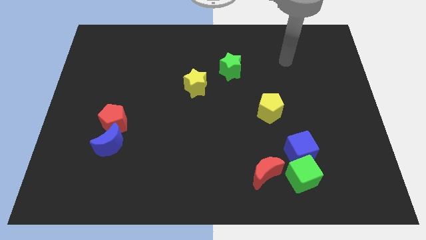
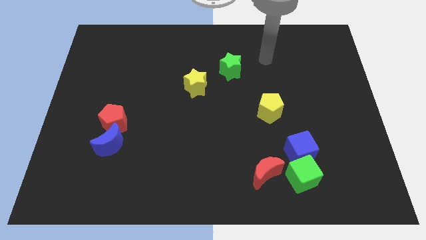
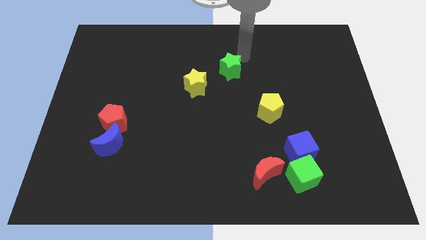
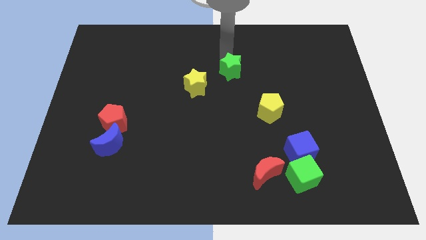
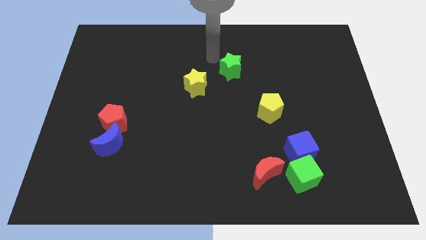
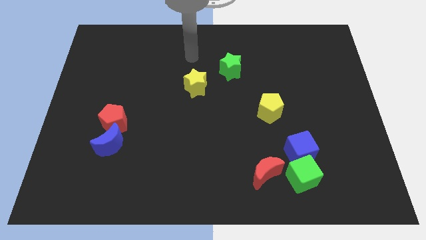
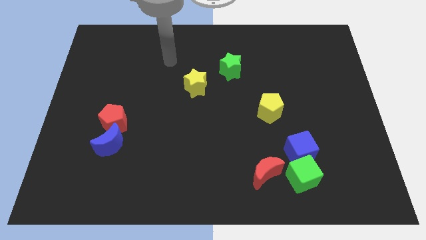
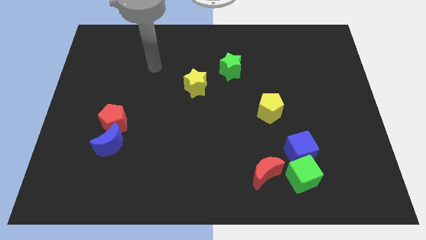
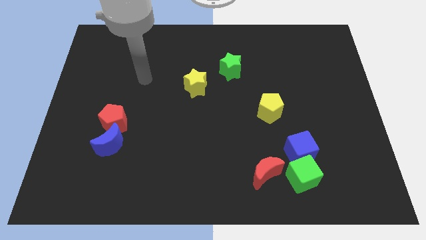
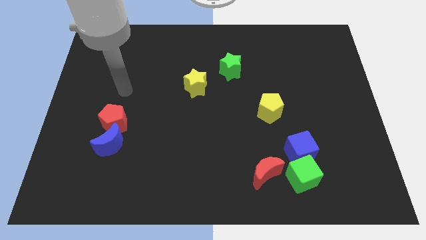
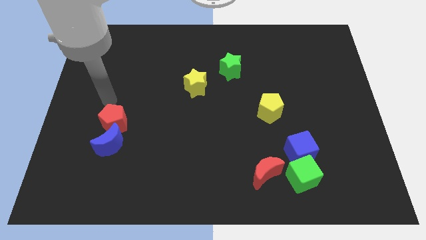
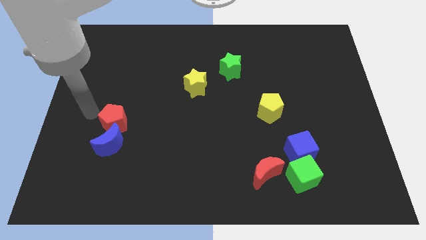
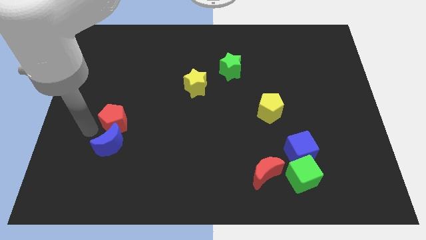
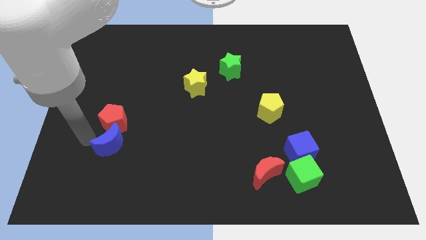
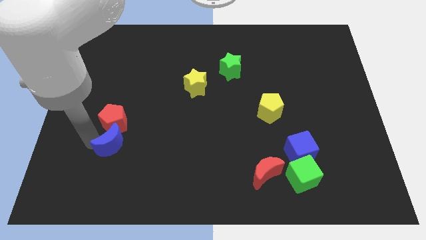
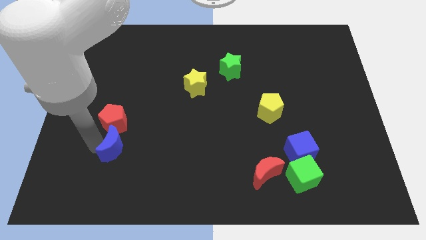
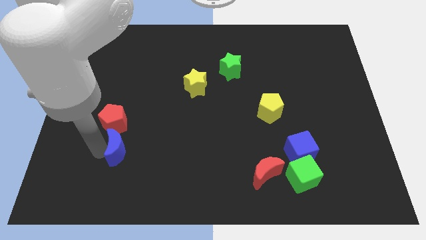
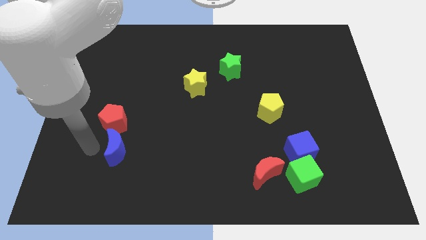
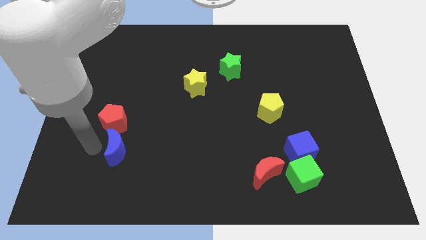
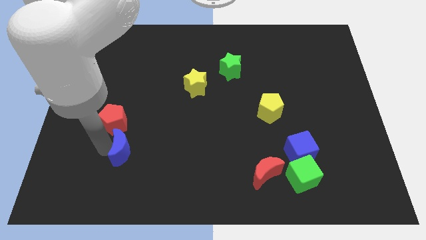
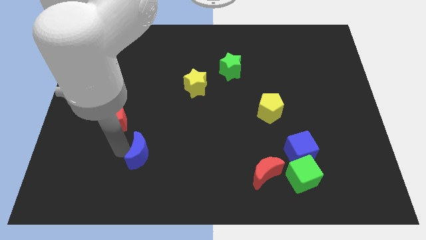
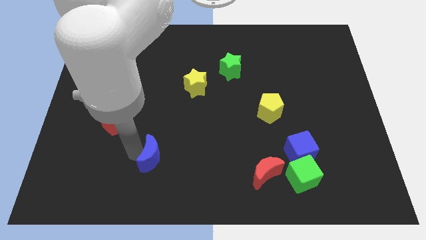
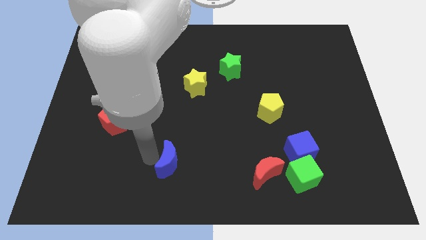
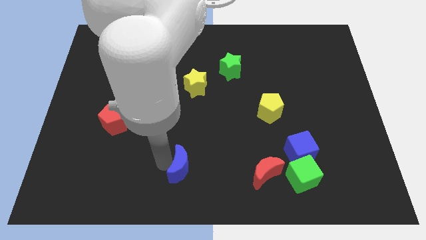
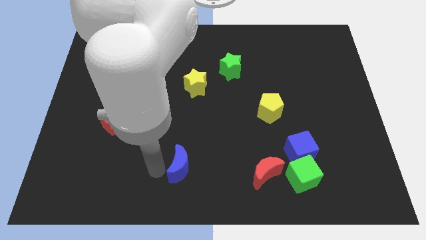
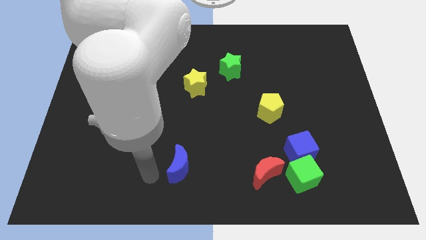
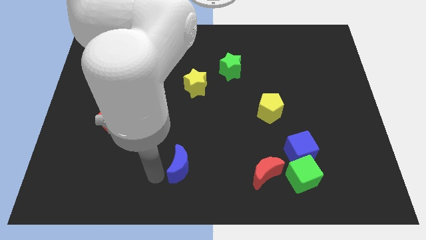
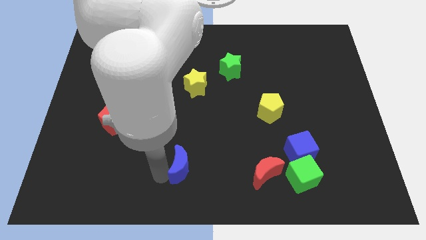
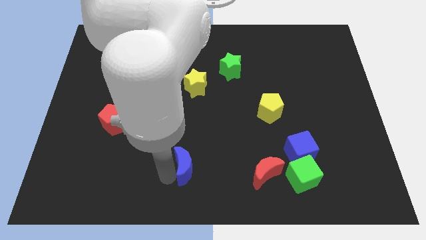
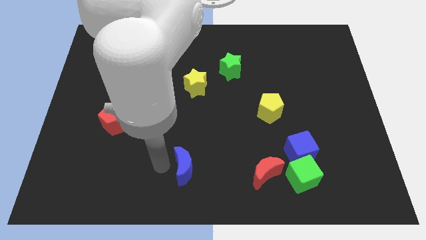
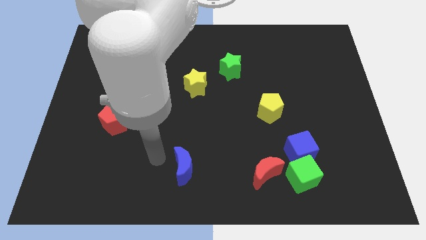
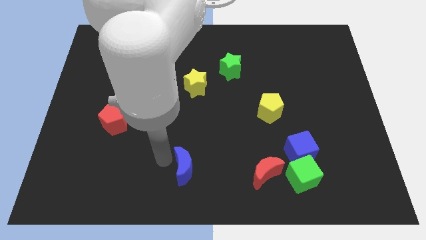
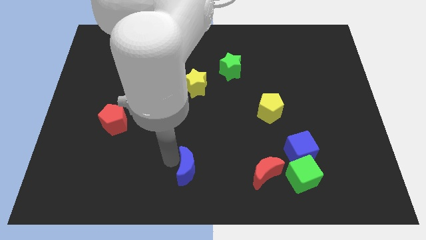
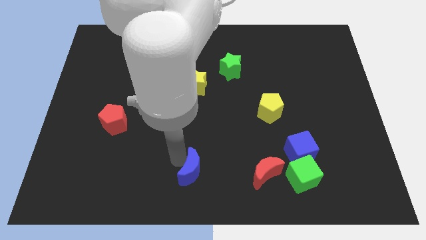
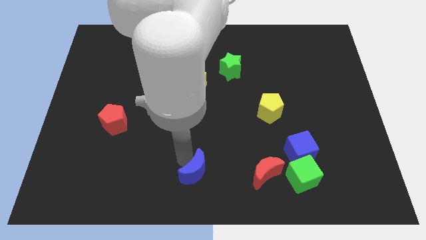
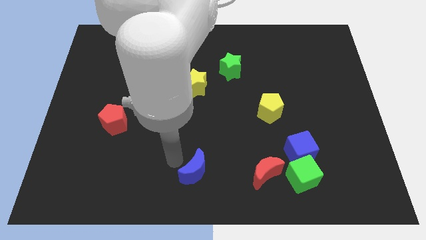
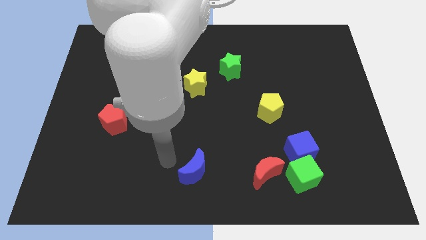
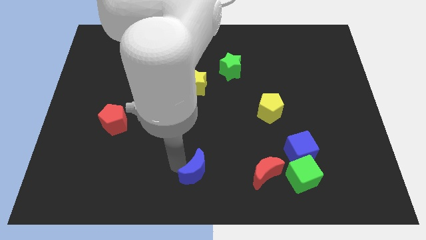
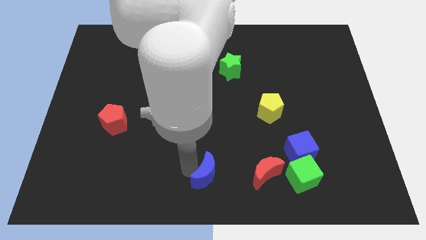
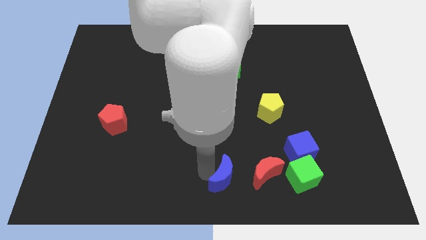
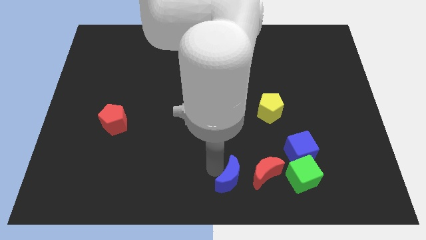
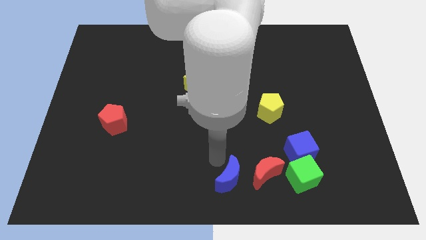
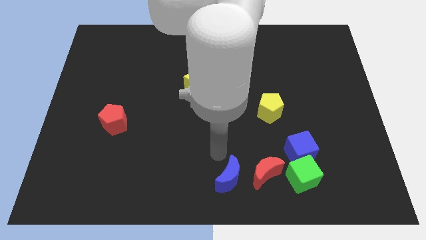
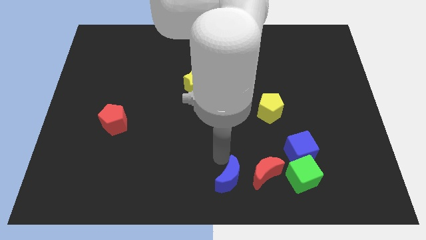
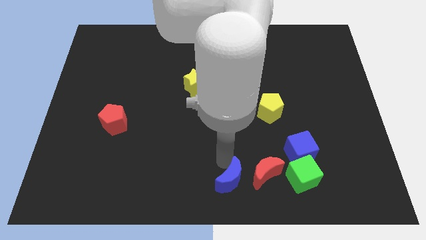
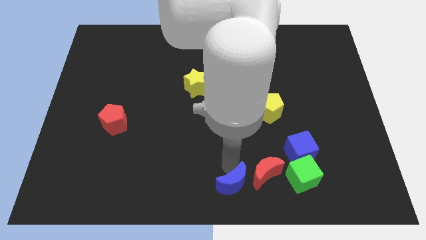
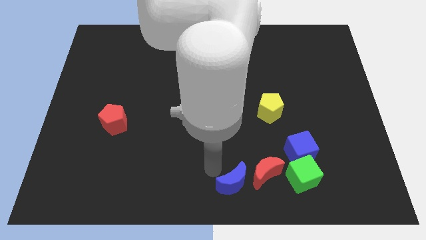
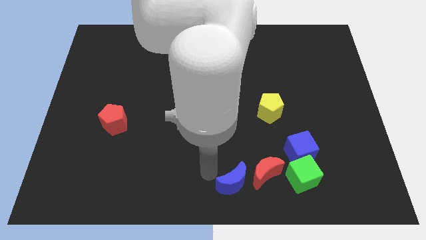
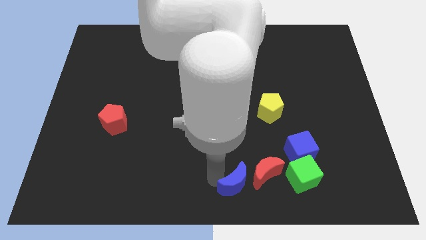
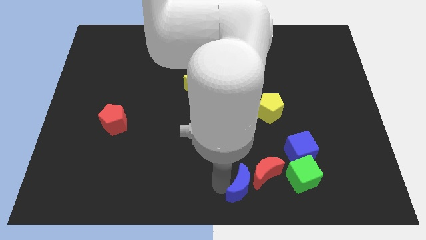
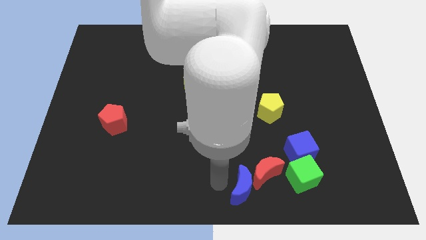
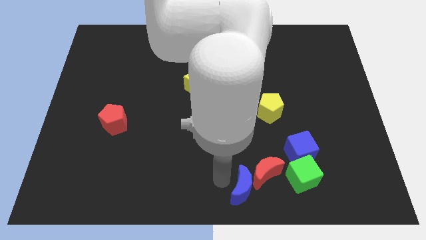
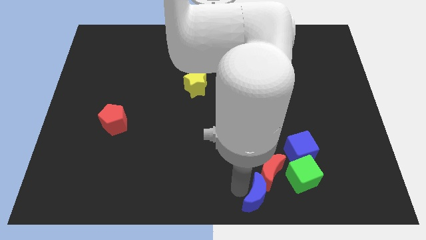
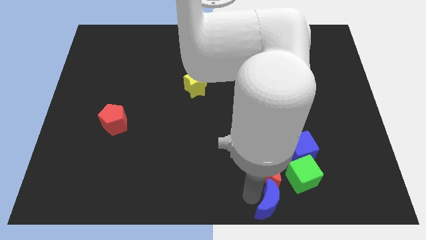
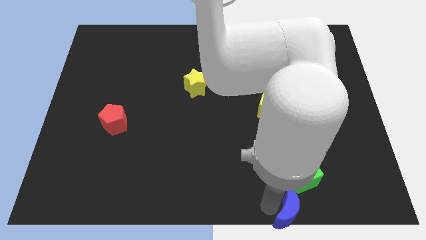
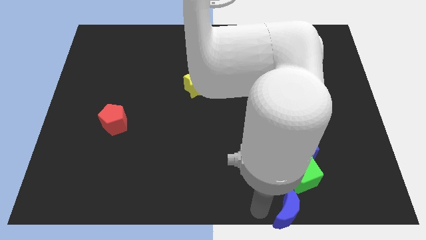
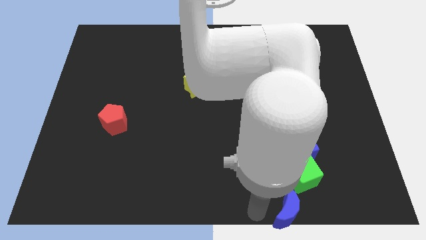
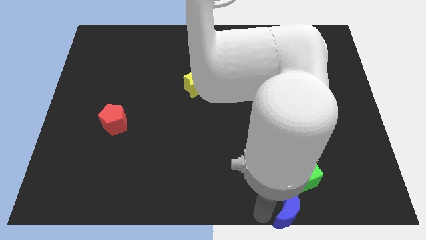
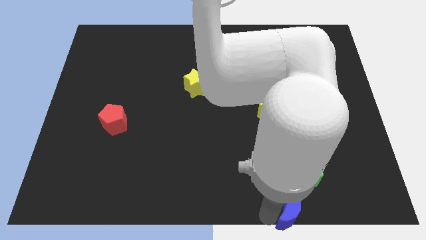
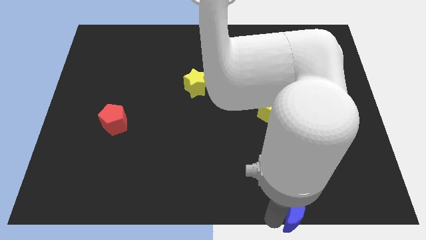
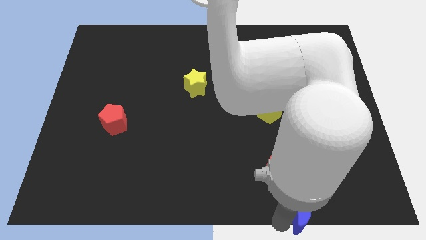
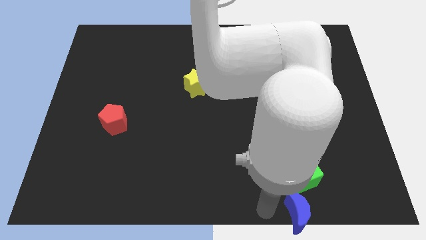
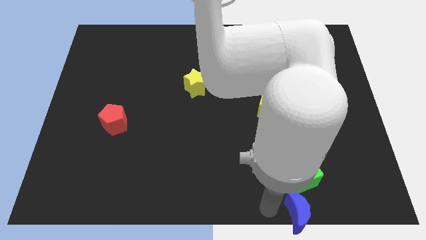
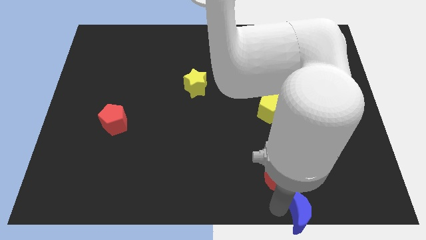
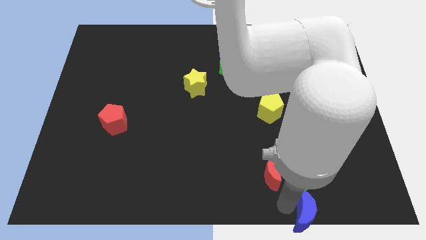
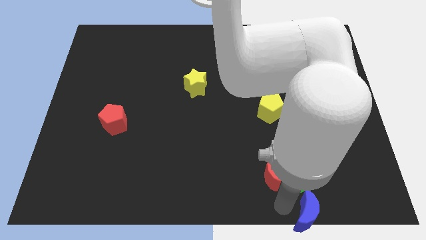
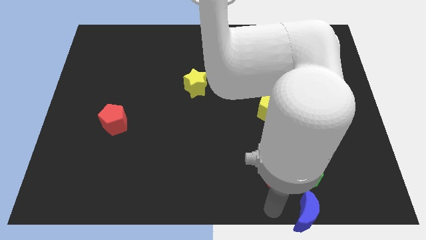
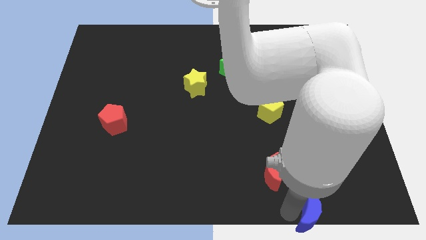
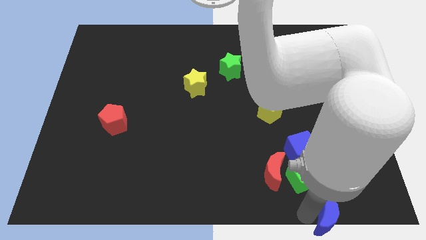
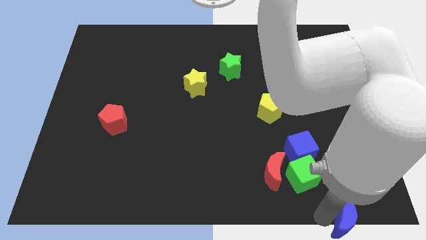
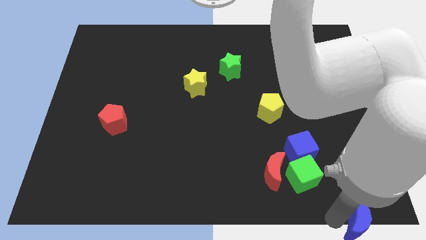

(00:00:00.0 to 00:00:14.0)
move the blue moon to the bottom right
